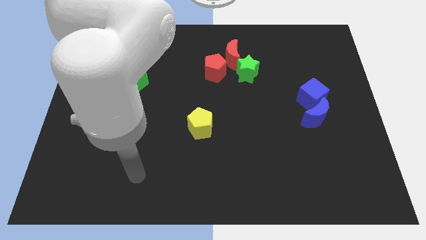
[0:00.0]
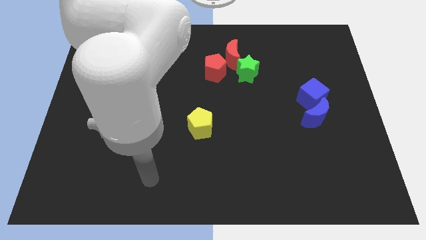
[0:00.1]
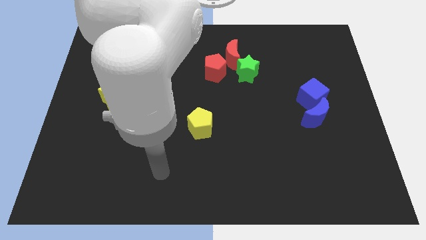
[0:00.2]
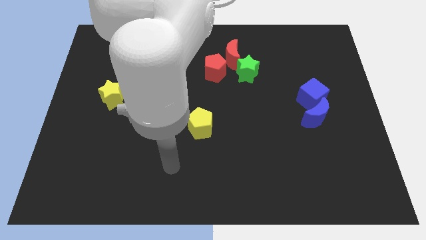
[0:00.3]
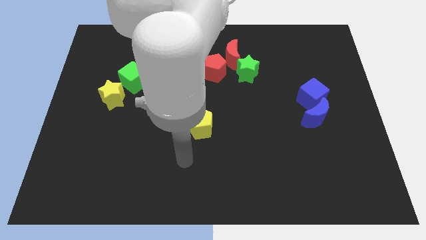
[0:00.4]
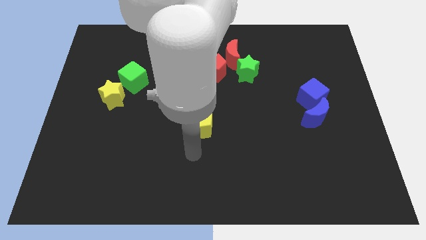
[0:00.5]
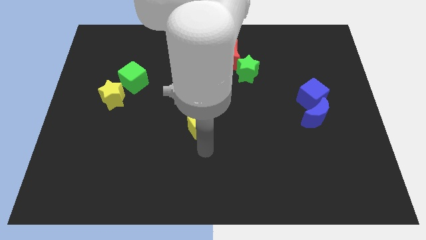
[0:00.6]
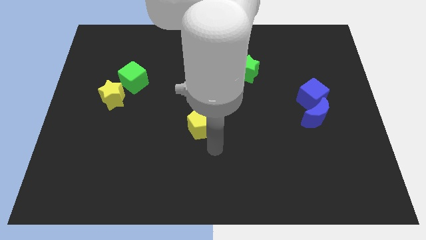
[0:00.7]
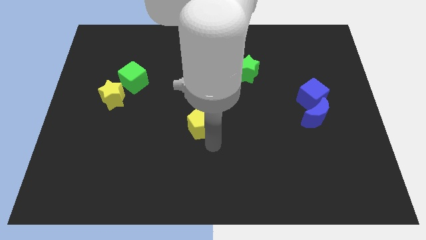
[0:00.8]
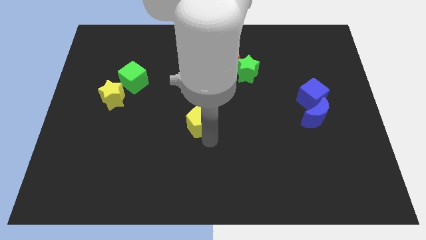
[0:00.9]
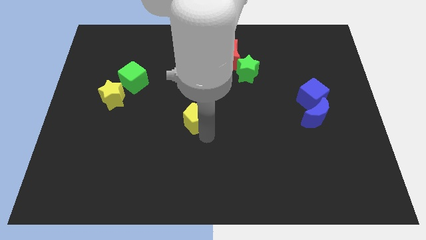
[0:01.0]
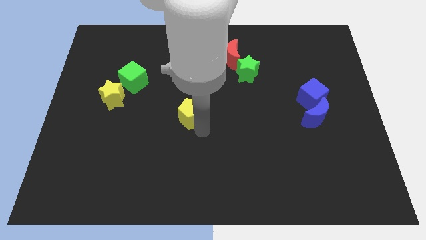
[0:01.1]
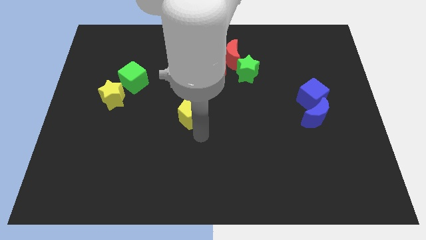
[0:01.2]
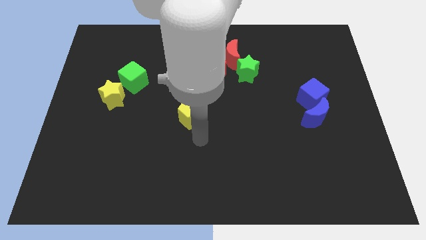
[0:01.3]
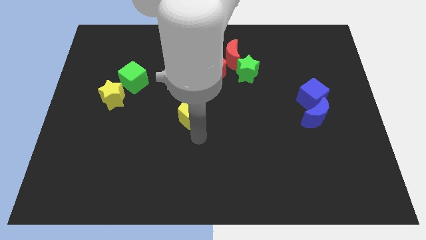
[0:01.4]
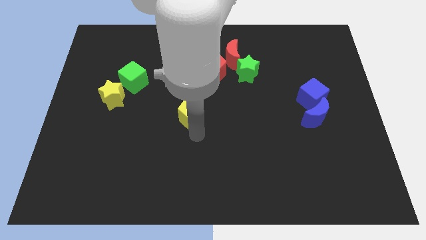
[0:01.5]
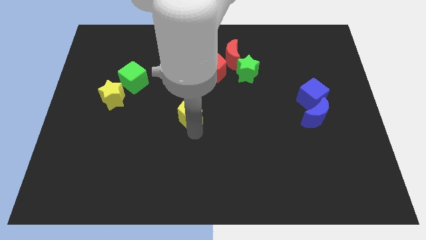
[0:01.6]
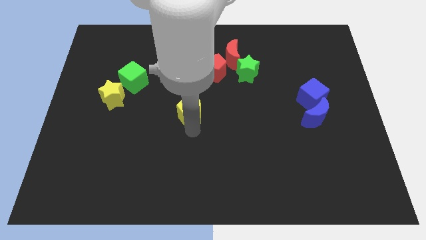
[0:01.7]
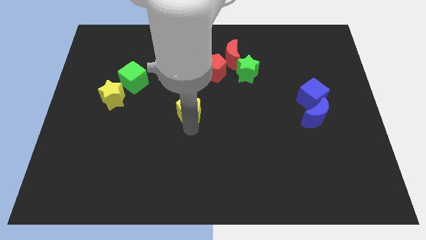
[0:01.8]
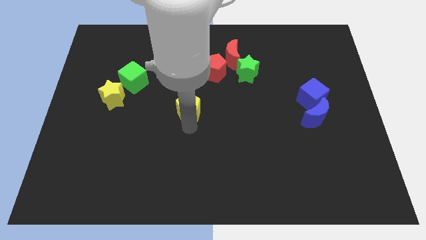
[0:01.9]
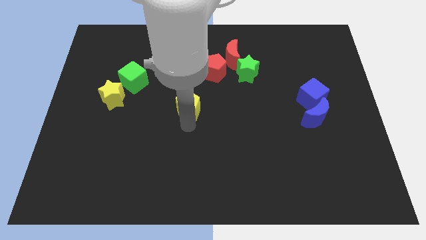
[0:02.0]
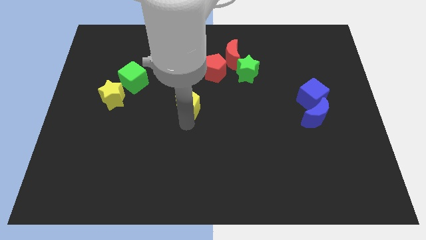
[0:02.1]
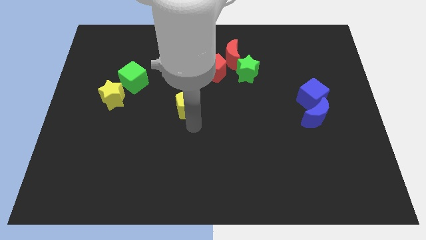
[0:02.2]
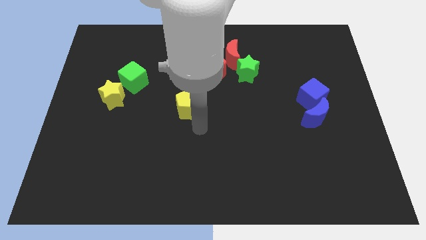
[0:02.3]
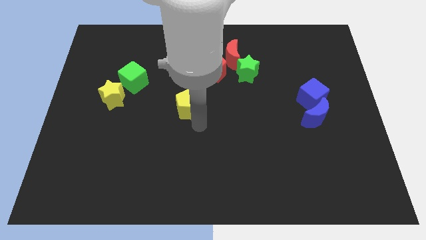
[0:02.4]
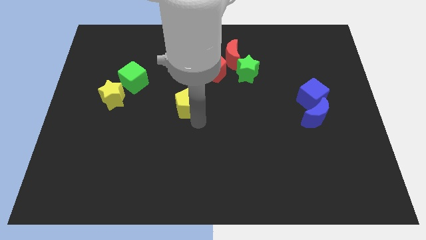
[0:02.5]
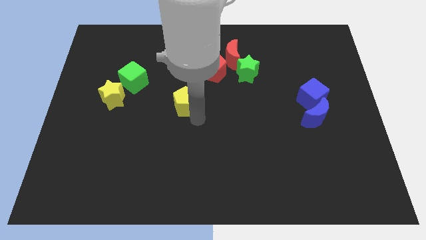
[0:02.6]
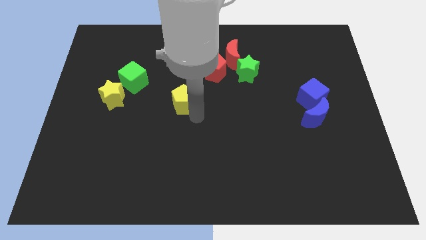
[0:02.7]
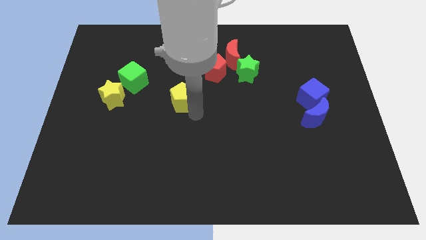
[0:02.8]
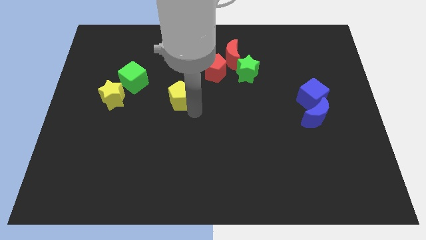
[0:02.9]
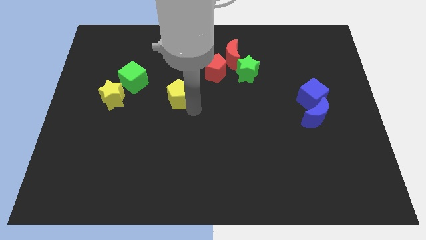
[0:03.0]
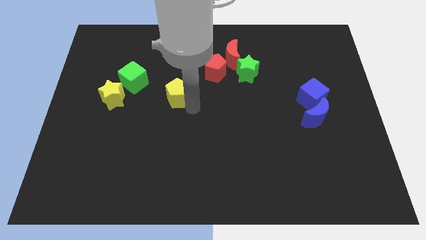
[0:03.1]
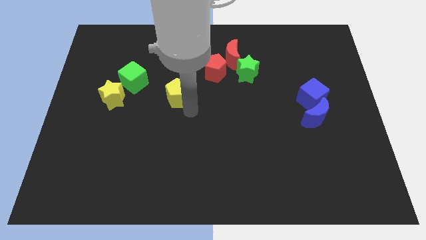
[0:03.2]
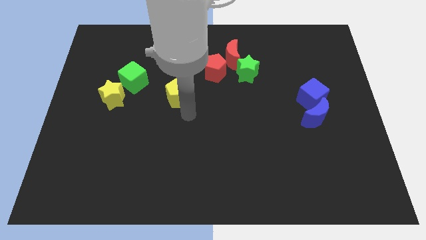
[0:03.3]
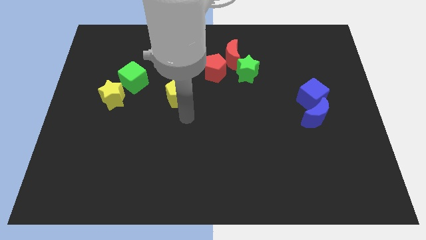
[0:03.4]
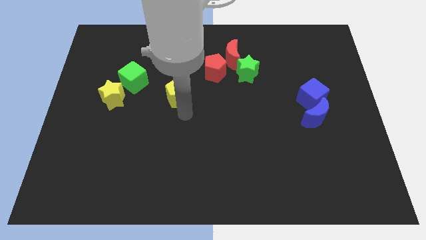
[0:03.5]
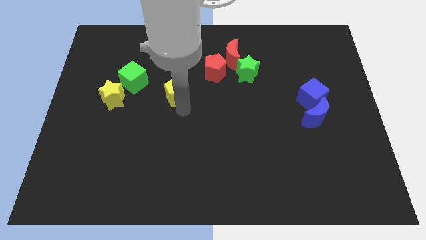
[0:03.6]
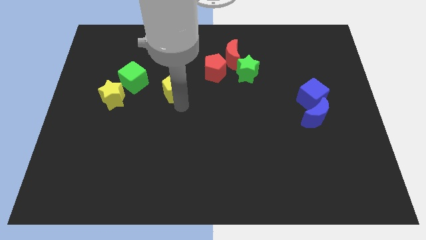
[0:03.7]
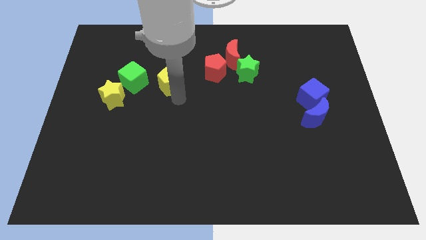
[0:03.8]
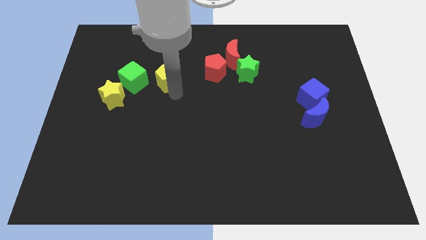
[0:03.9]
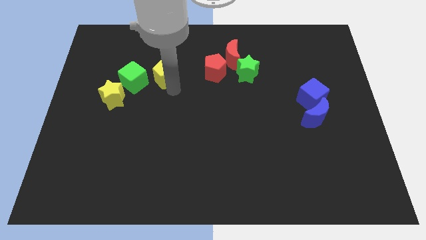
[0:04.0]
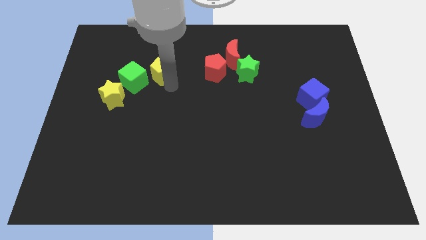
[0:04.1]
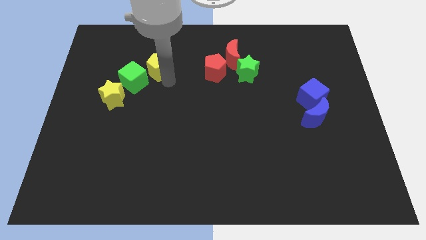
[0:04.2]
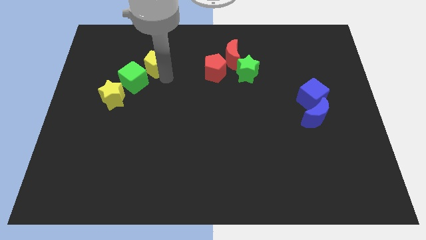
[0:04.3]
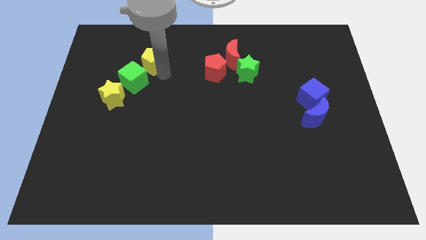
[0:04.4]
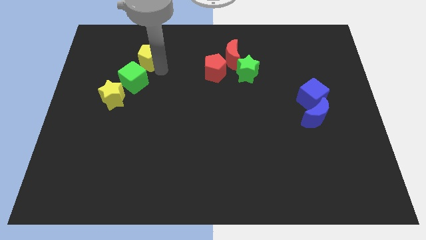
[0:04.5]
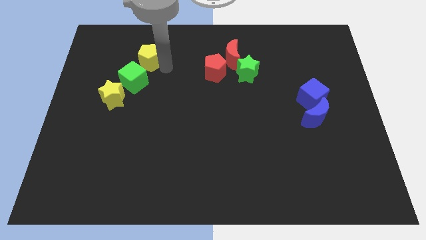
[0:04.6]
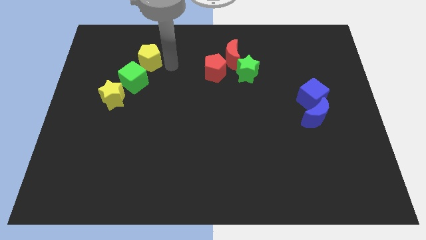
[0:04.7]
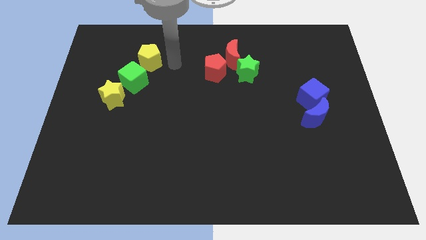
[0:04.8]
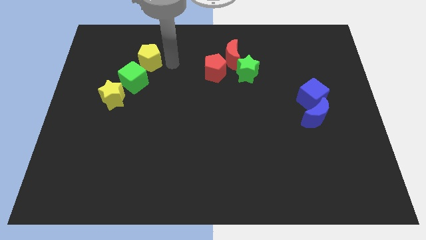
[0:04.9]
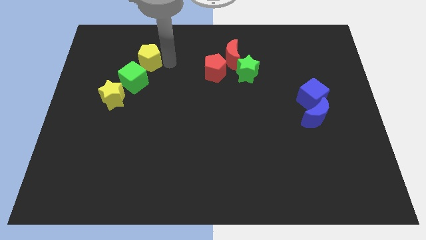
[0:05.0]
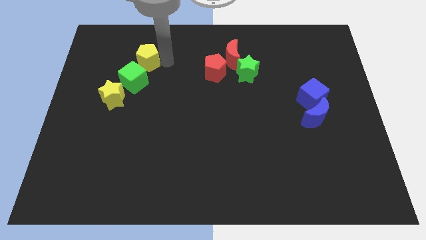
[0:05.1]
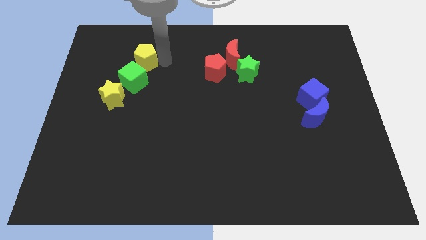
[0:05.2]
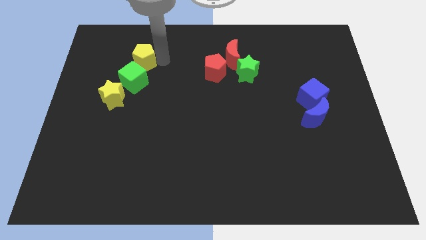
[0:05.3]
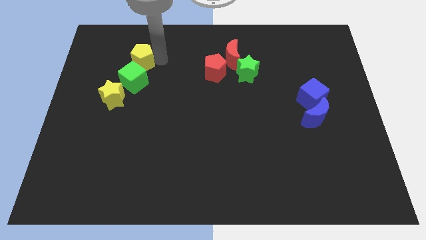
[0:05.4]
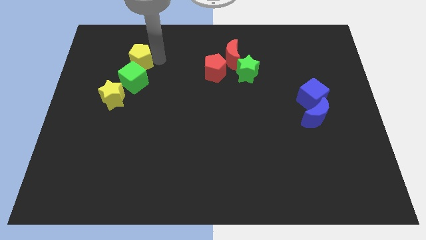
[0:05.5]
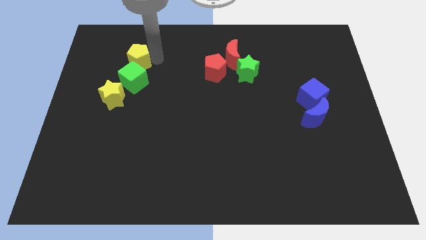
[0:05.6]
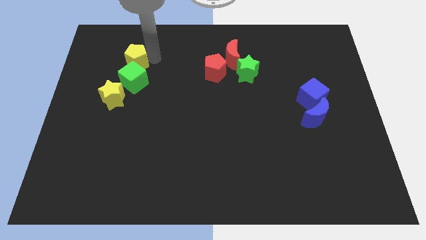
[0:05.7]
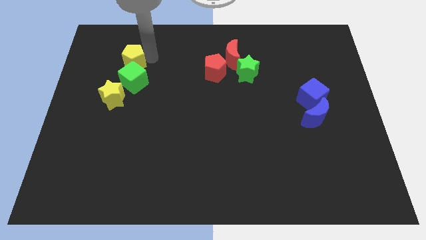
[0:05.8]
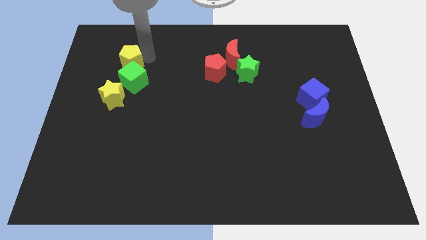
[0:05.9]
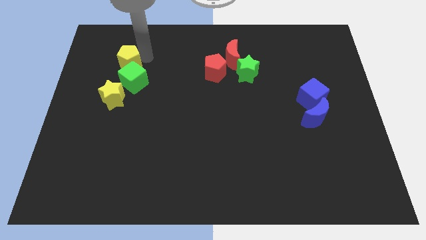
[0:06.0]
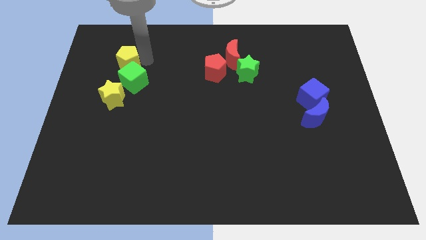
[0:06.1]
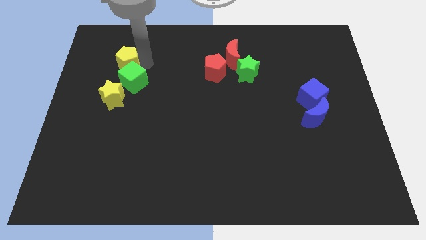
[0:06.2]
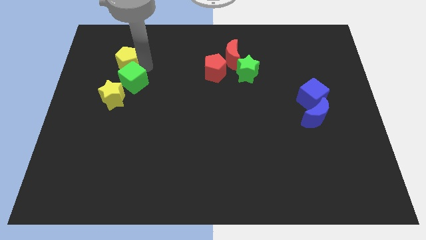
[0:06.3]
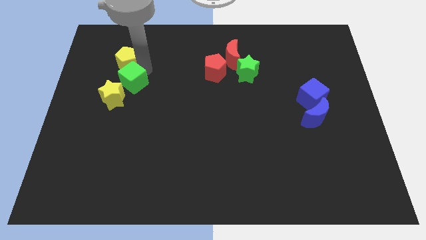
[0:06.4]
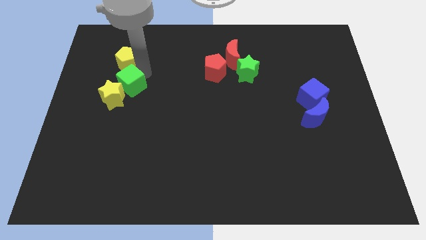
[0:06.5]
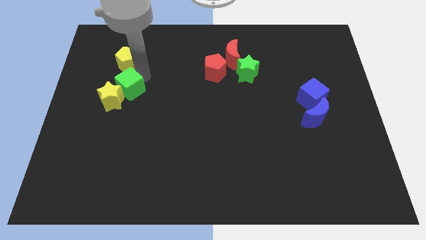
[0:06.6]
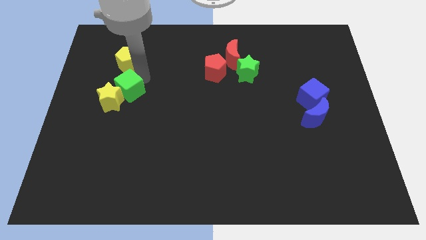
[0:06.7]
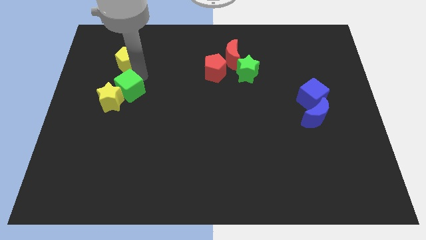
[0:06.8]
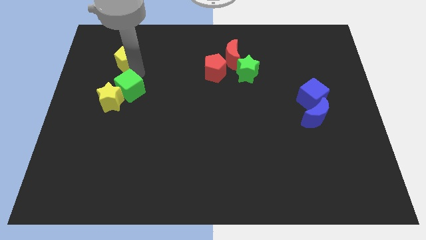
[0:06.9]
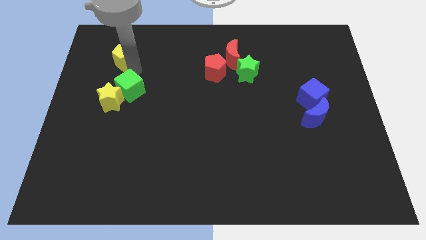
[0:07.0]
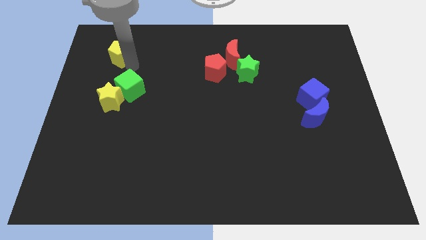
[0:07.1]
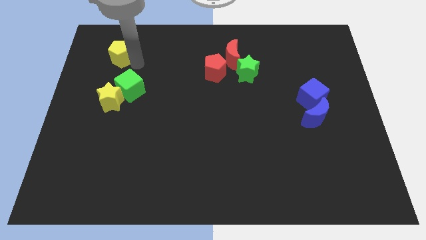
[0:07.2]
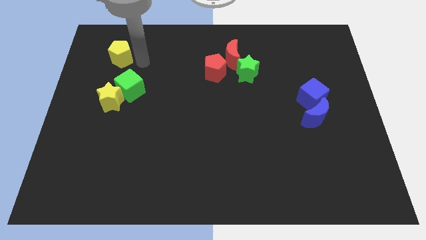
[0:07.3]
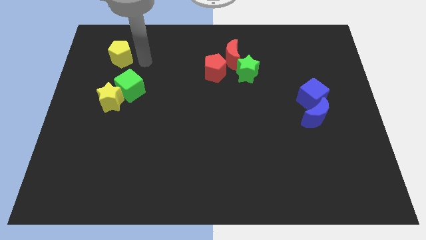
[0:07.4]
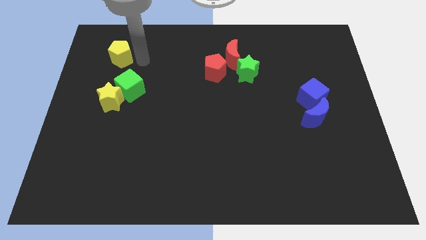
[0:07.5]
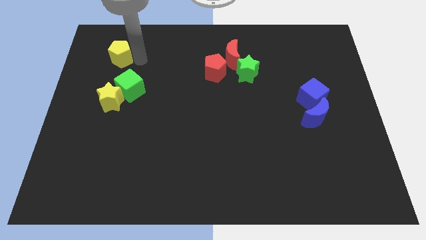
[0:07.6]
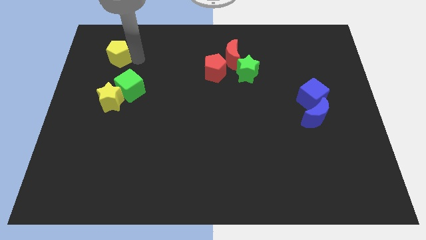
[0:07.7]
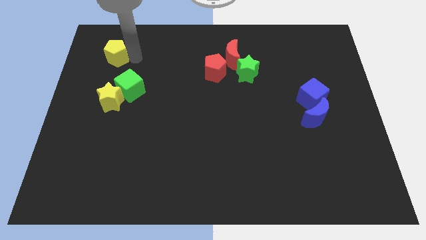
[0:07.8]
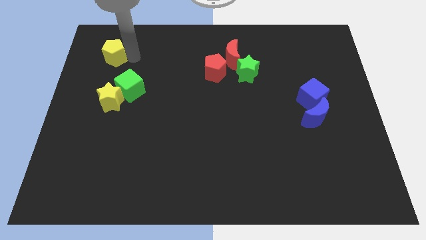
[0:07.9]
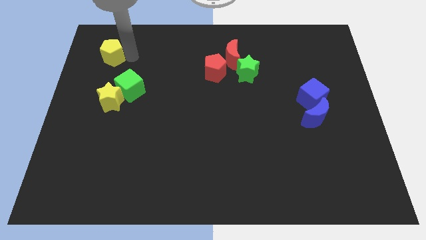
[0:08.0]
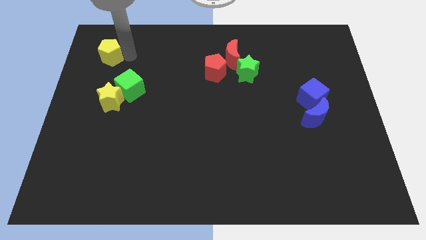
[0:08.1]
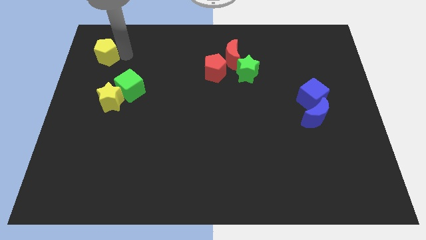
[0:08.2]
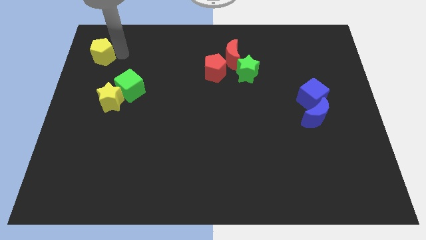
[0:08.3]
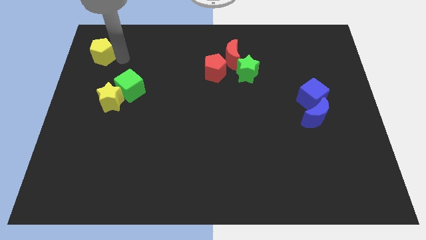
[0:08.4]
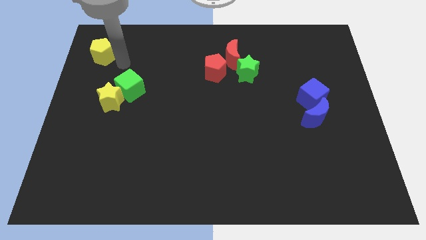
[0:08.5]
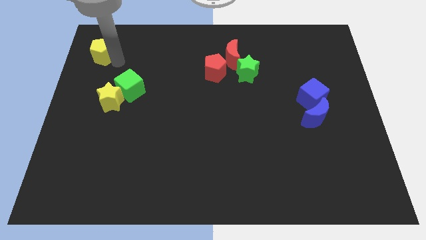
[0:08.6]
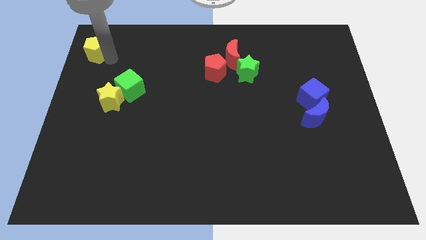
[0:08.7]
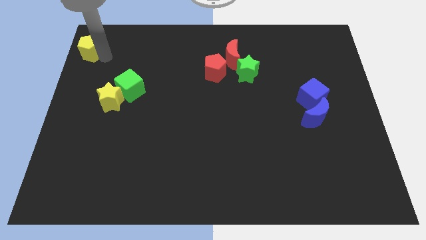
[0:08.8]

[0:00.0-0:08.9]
put the yellow pentagon to the top left corner
